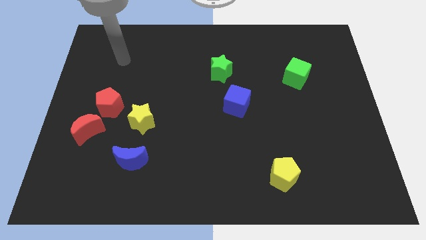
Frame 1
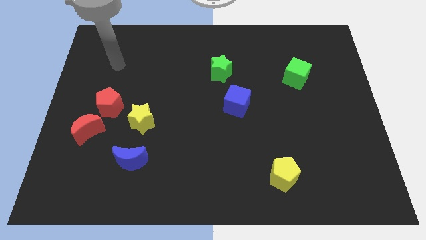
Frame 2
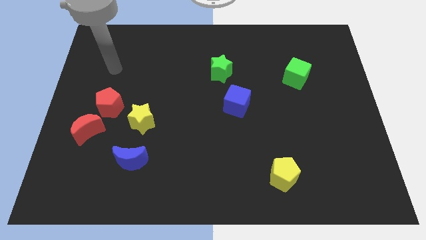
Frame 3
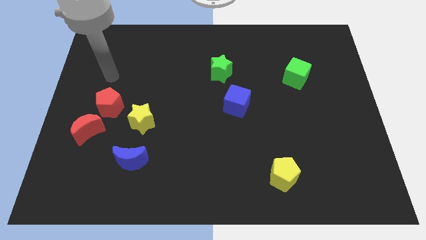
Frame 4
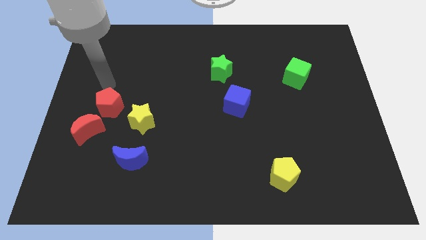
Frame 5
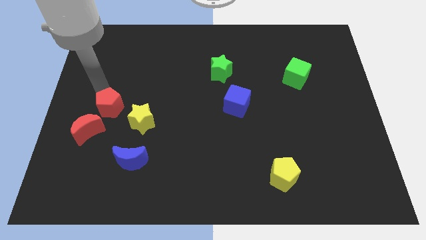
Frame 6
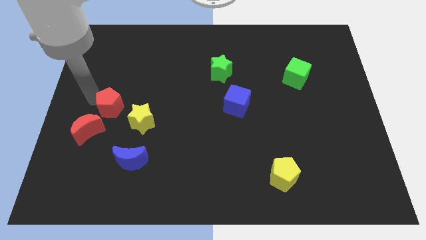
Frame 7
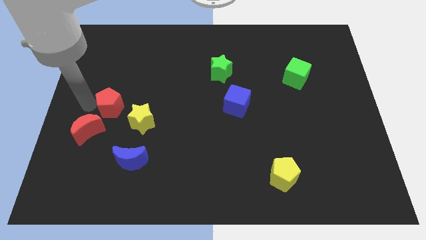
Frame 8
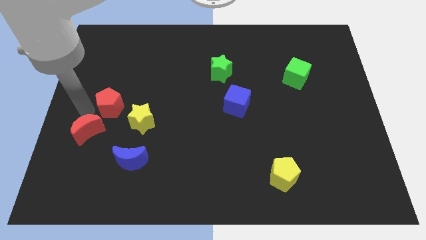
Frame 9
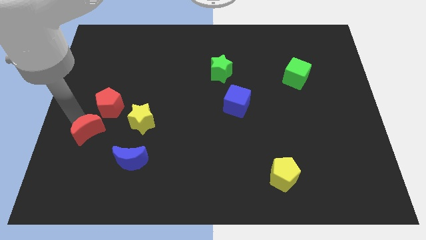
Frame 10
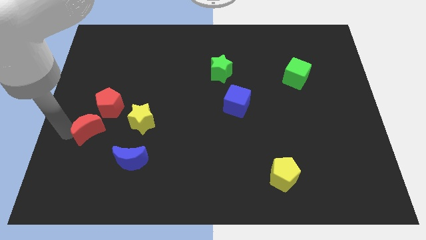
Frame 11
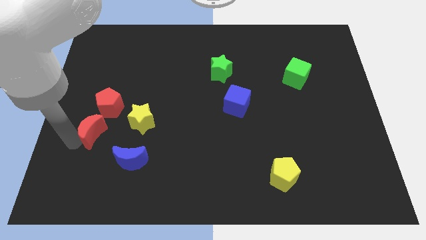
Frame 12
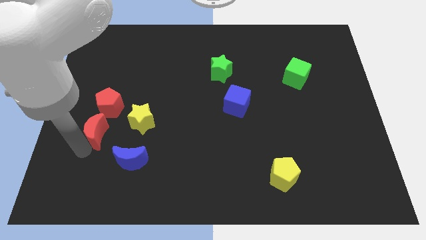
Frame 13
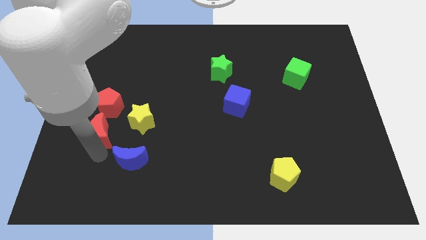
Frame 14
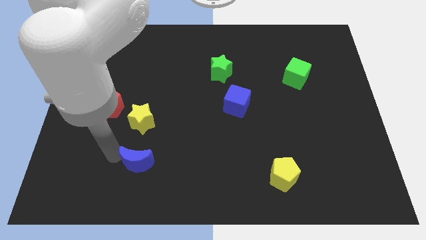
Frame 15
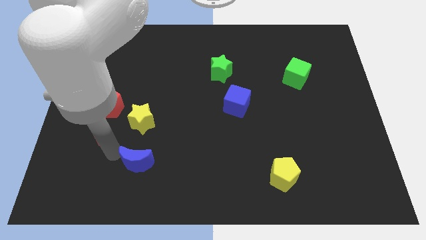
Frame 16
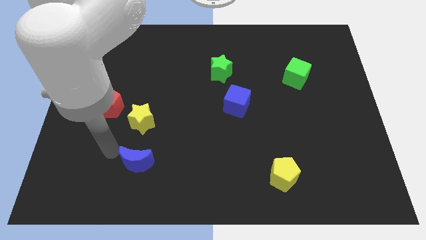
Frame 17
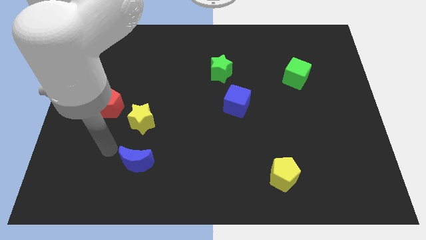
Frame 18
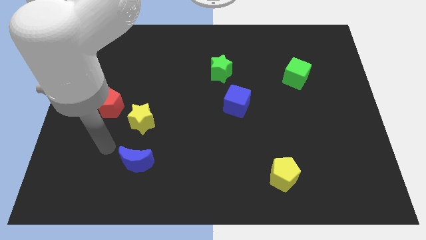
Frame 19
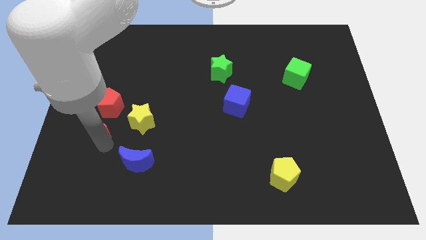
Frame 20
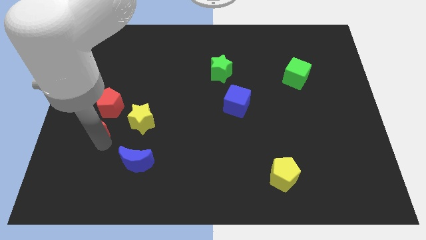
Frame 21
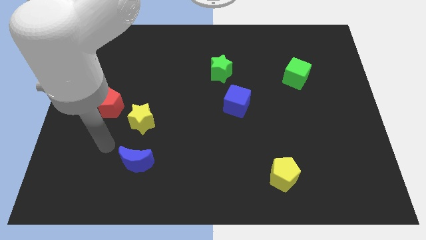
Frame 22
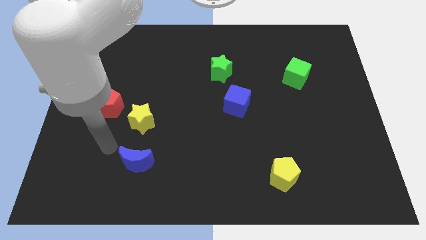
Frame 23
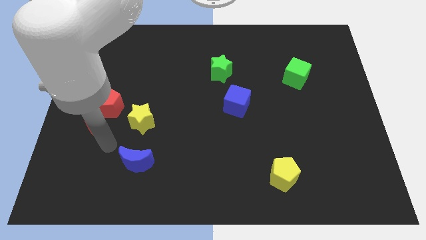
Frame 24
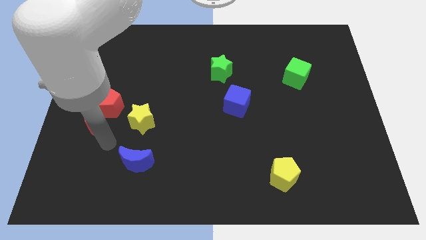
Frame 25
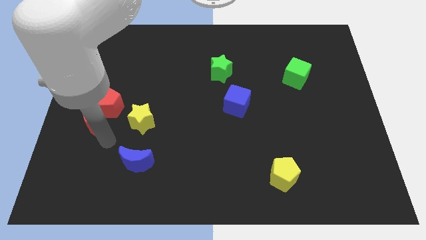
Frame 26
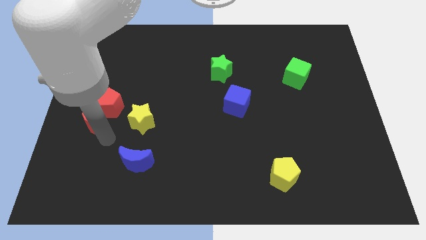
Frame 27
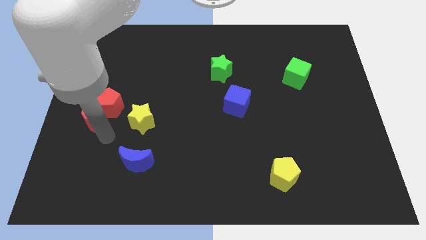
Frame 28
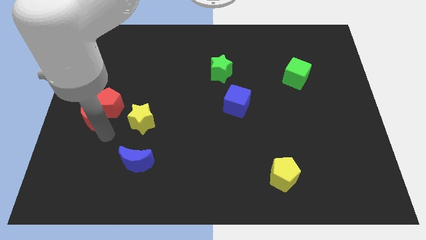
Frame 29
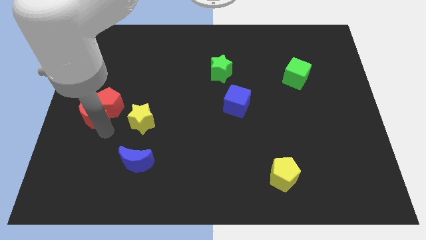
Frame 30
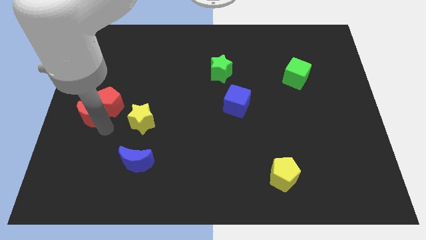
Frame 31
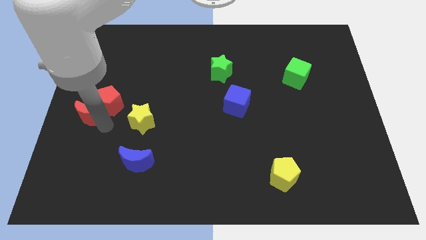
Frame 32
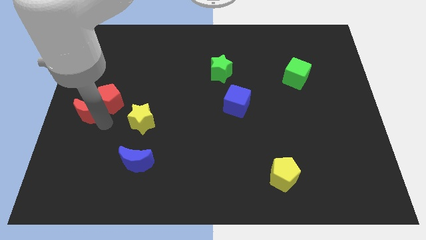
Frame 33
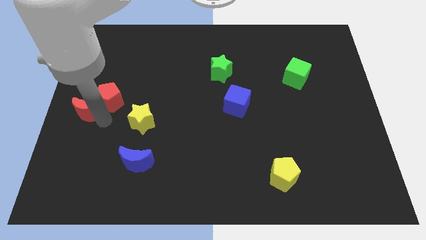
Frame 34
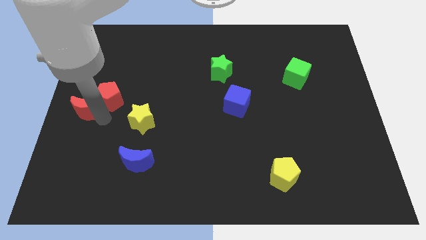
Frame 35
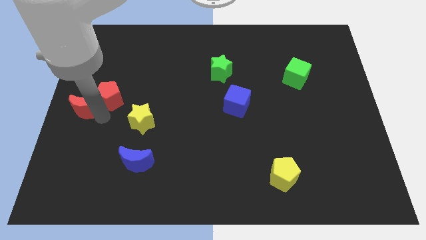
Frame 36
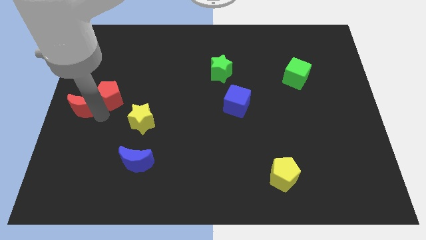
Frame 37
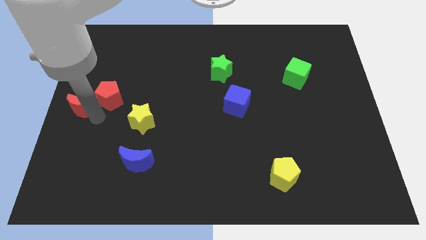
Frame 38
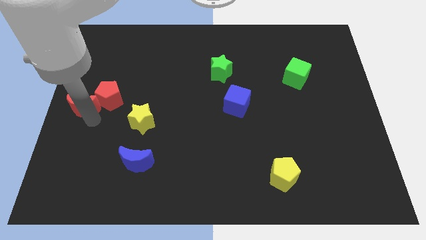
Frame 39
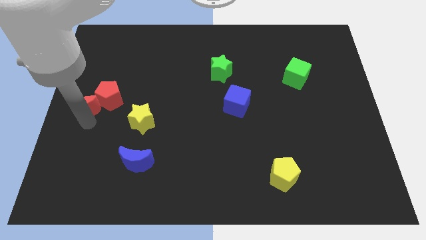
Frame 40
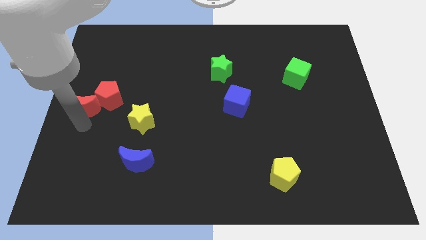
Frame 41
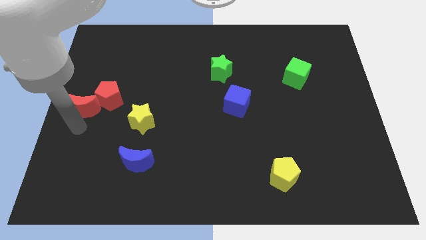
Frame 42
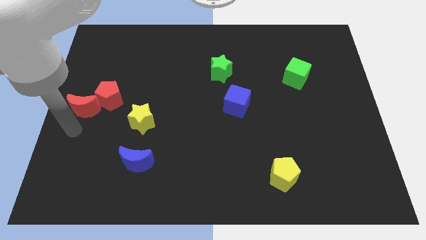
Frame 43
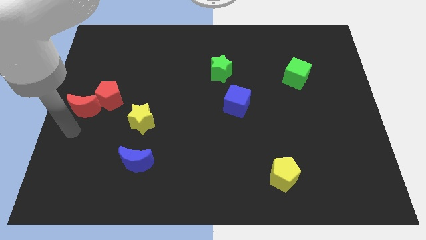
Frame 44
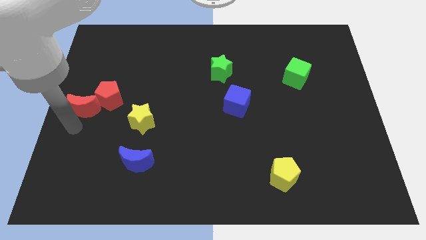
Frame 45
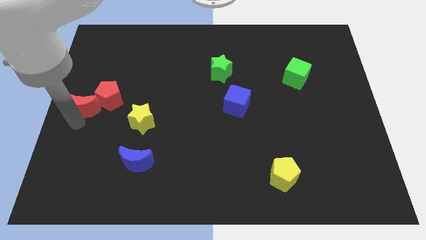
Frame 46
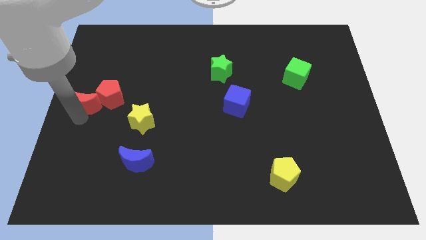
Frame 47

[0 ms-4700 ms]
slide the red moon a little bit up

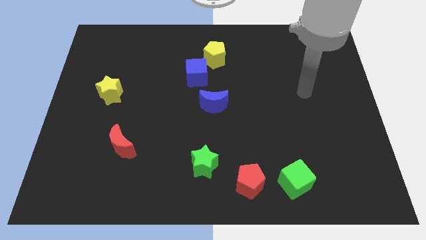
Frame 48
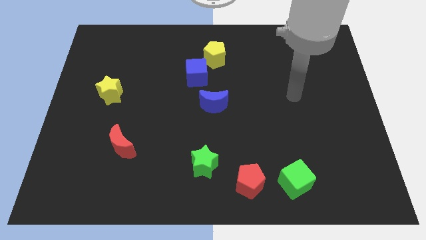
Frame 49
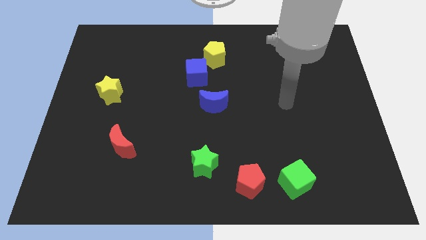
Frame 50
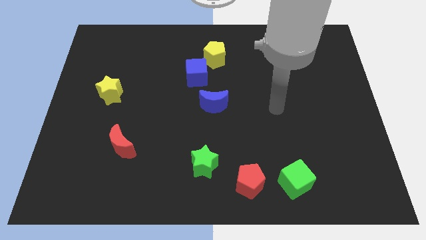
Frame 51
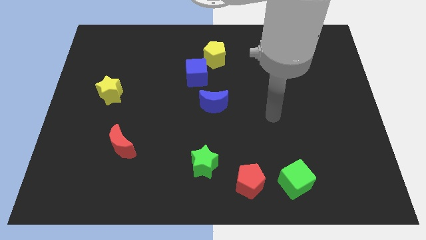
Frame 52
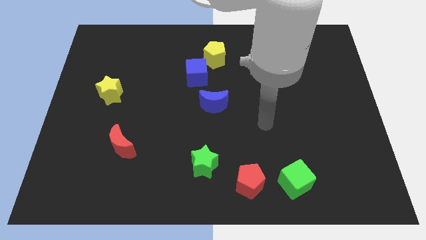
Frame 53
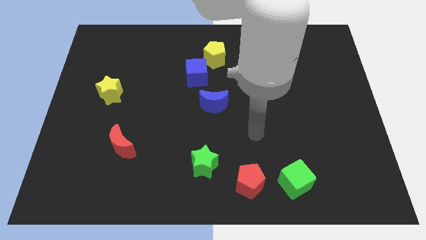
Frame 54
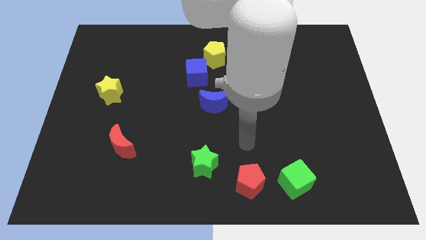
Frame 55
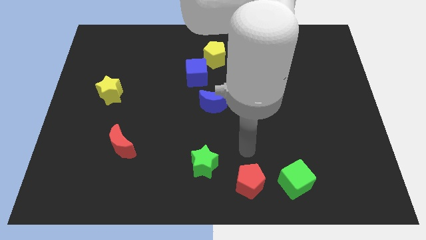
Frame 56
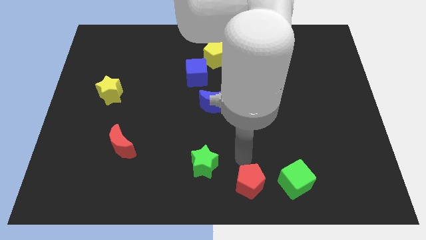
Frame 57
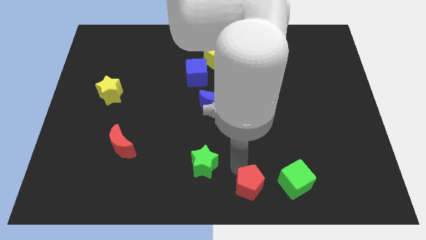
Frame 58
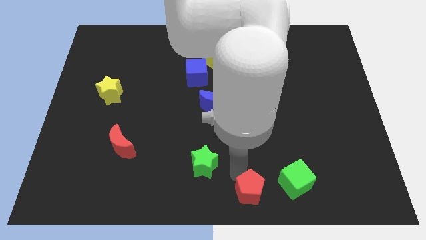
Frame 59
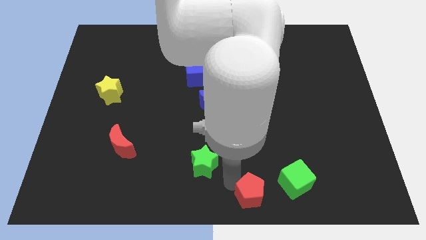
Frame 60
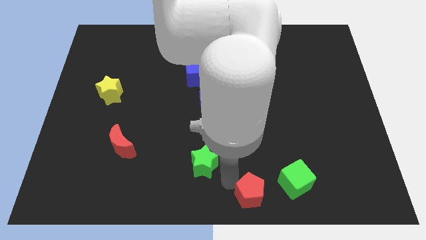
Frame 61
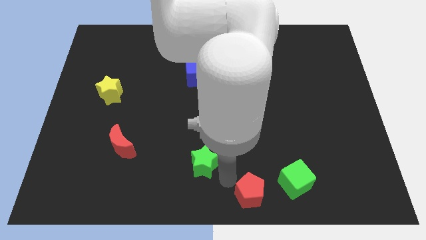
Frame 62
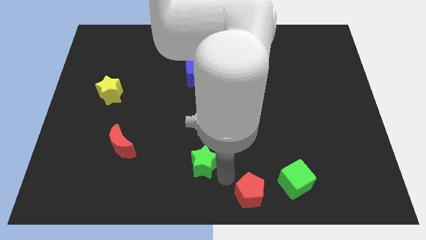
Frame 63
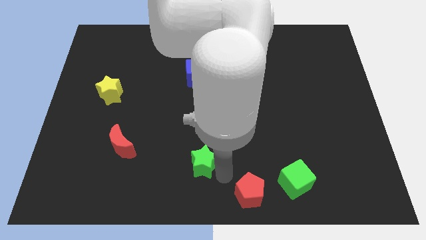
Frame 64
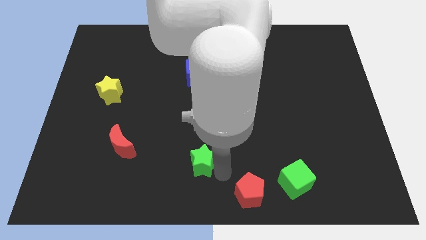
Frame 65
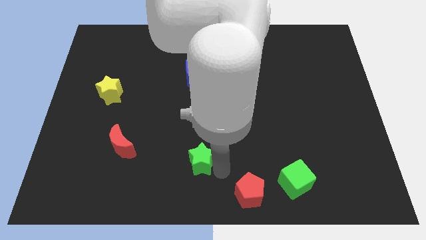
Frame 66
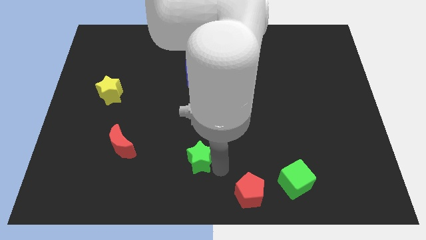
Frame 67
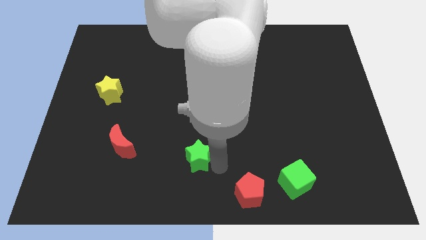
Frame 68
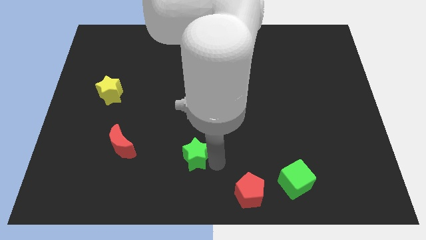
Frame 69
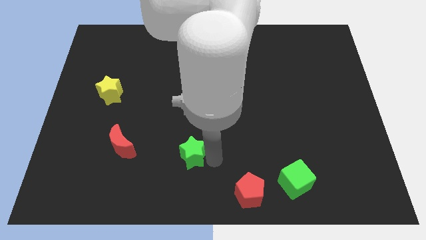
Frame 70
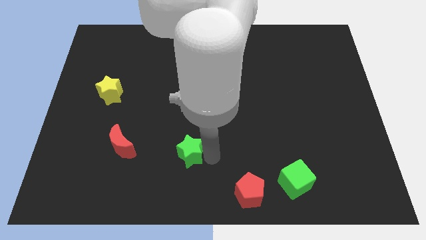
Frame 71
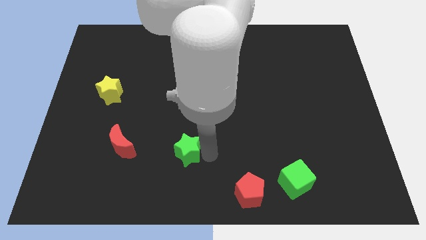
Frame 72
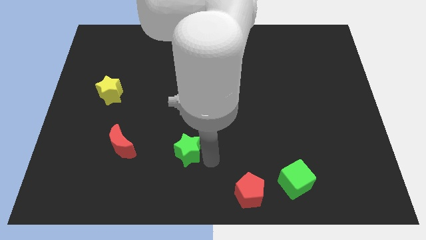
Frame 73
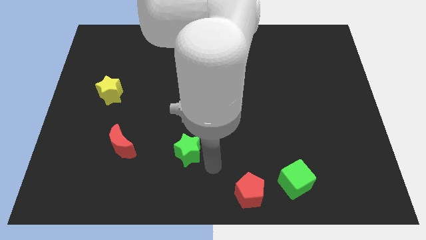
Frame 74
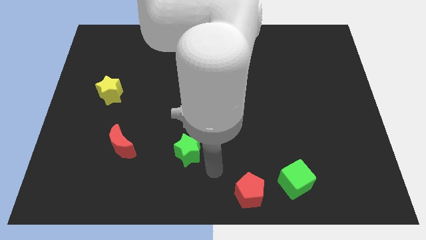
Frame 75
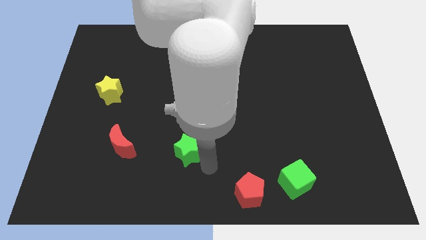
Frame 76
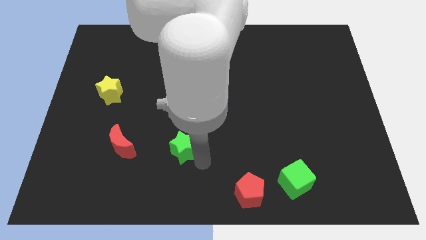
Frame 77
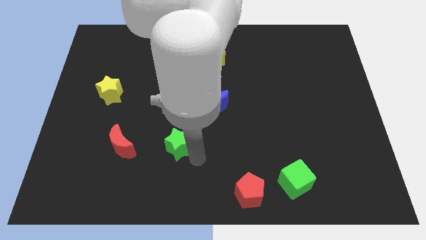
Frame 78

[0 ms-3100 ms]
slightly move the green star up and to the left
